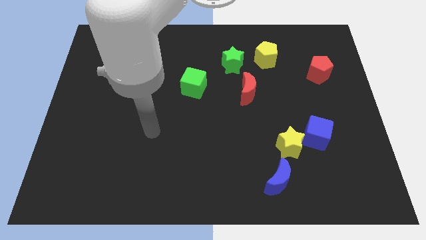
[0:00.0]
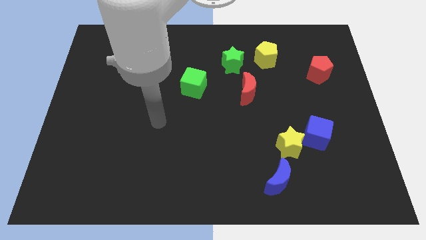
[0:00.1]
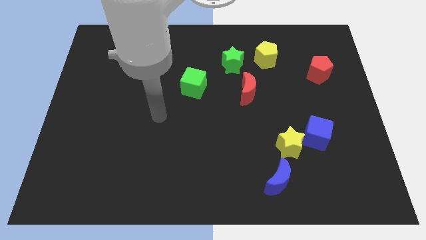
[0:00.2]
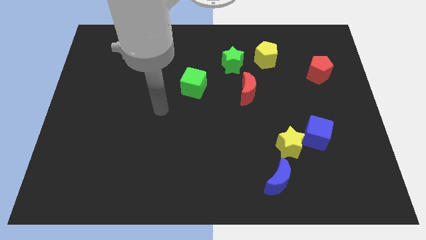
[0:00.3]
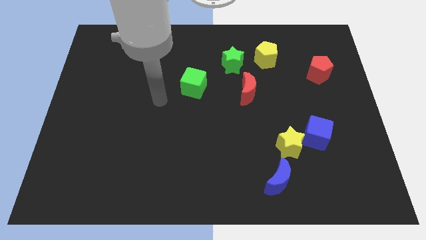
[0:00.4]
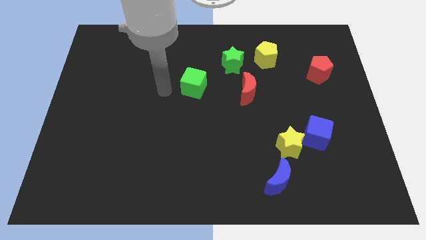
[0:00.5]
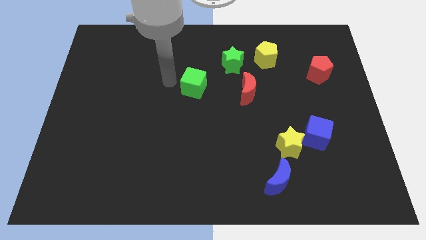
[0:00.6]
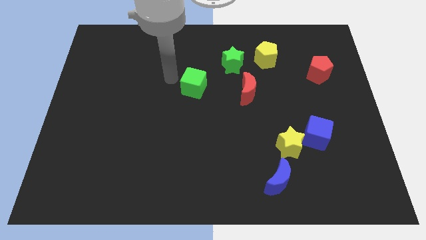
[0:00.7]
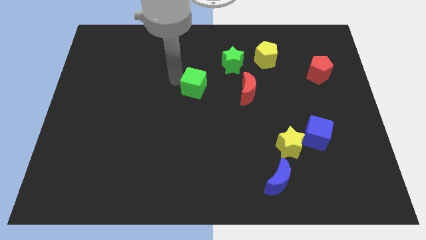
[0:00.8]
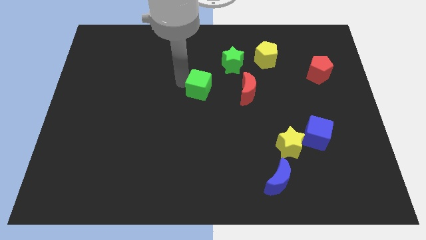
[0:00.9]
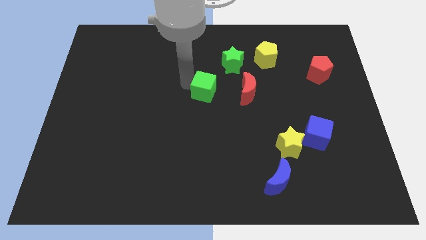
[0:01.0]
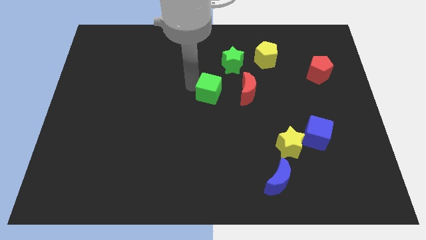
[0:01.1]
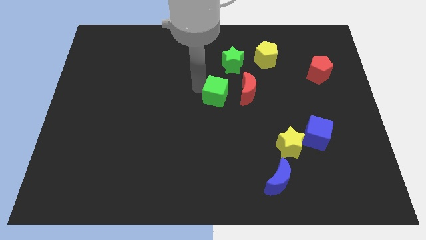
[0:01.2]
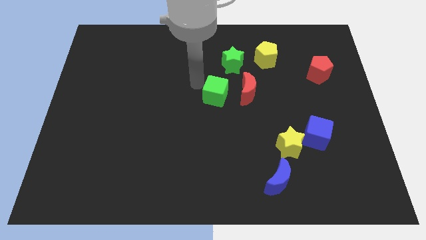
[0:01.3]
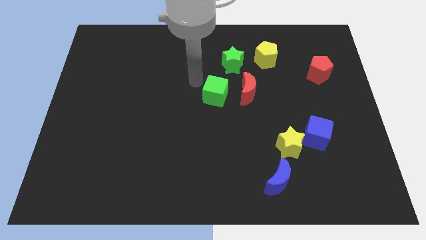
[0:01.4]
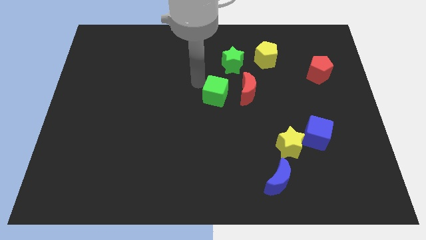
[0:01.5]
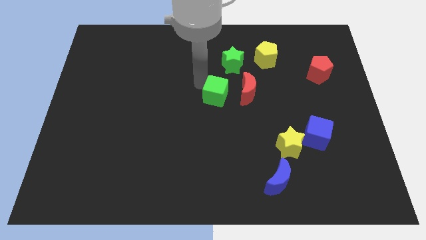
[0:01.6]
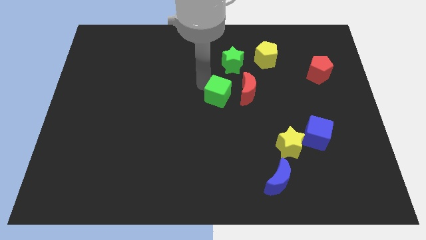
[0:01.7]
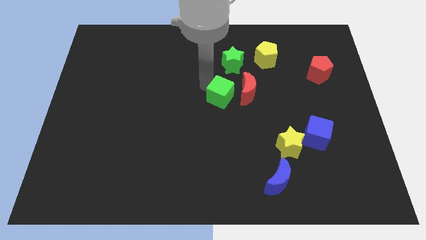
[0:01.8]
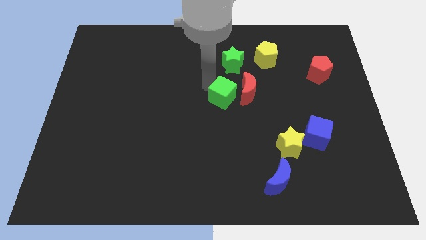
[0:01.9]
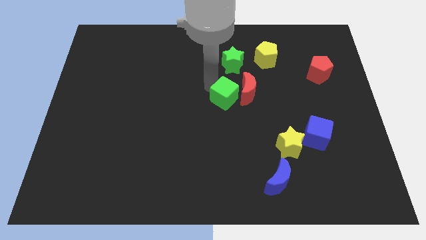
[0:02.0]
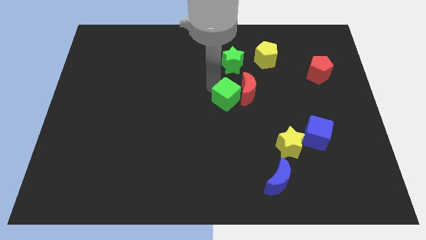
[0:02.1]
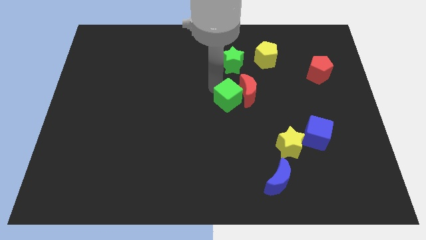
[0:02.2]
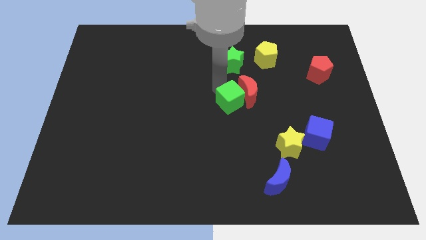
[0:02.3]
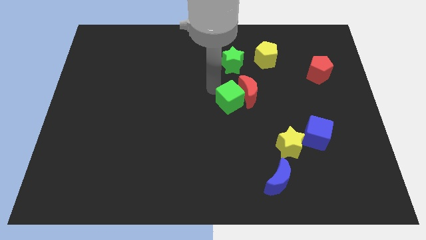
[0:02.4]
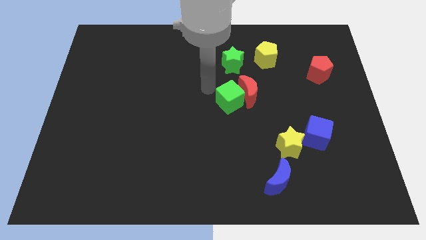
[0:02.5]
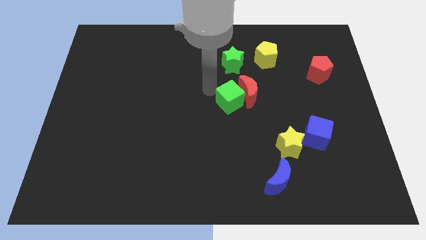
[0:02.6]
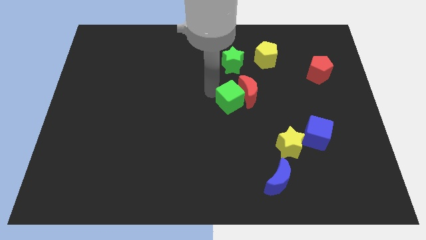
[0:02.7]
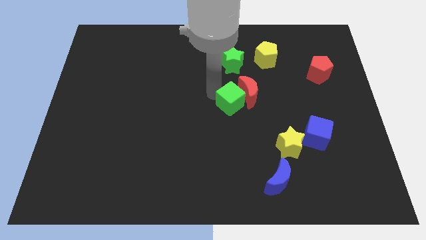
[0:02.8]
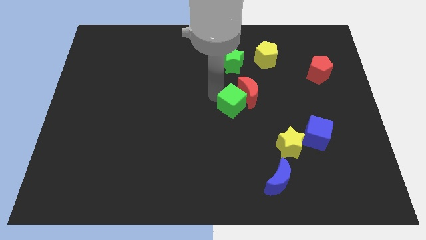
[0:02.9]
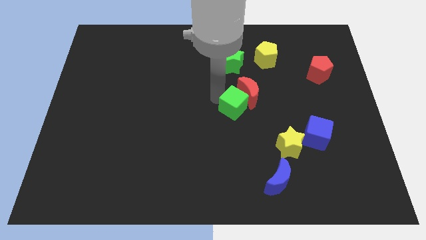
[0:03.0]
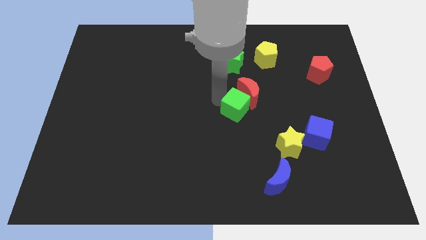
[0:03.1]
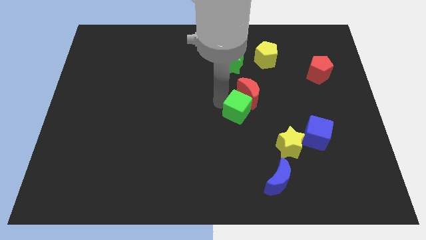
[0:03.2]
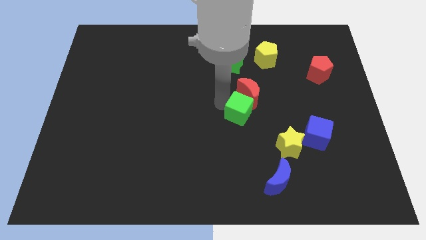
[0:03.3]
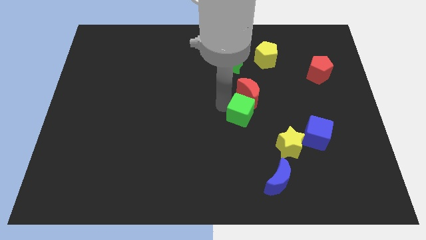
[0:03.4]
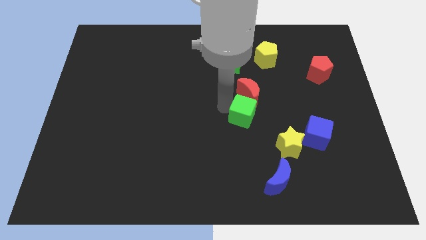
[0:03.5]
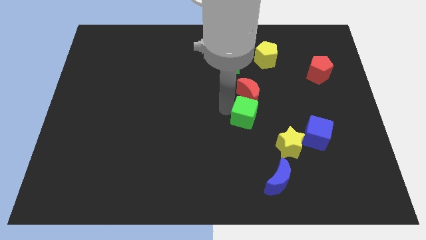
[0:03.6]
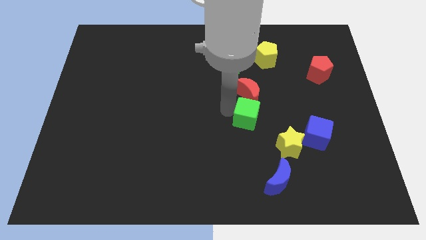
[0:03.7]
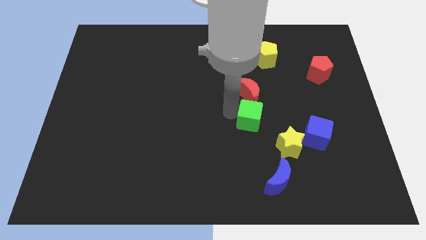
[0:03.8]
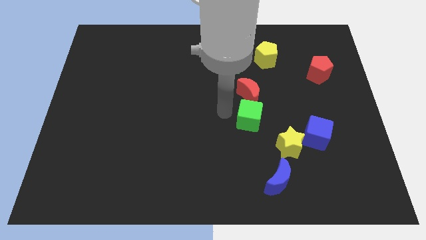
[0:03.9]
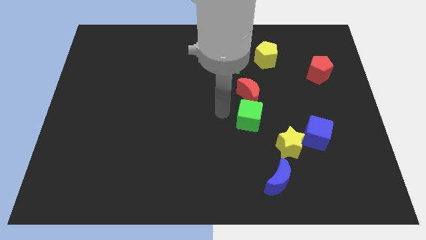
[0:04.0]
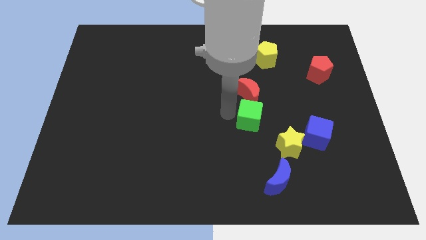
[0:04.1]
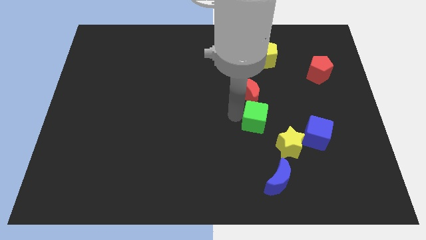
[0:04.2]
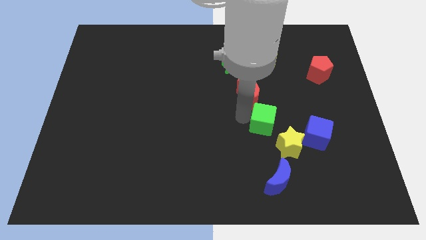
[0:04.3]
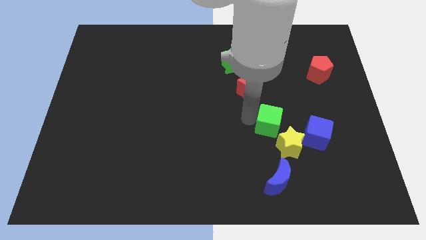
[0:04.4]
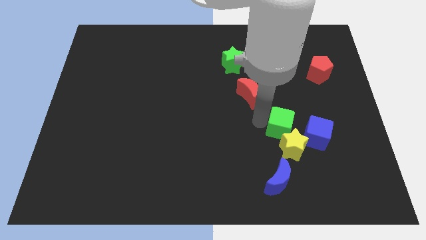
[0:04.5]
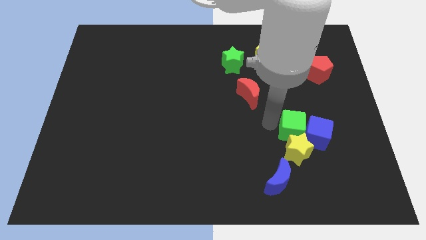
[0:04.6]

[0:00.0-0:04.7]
push the green cube next to the blue cube

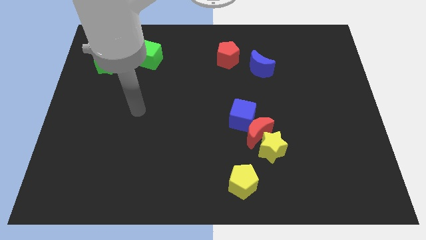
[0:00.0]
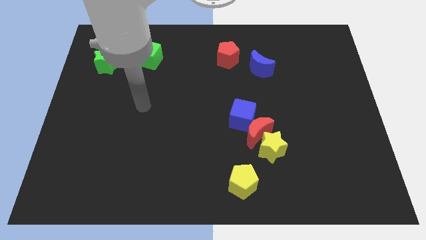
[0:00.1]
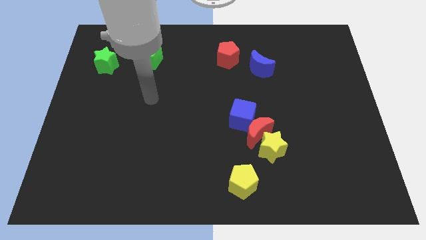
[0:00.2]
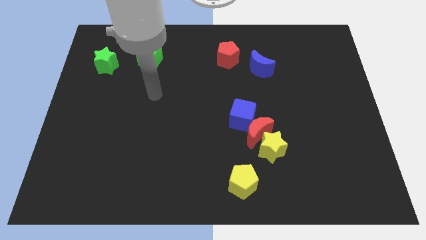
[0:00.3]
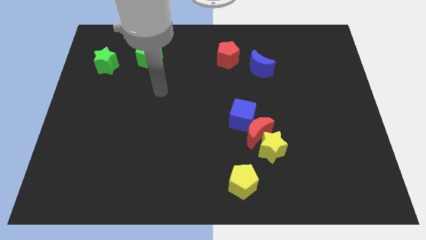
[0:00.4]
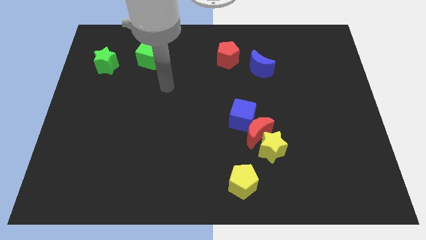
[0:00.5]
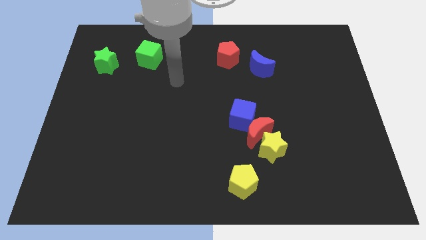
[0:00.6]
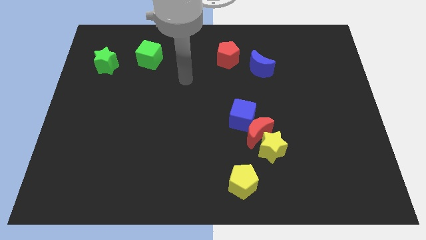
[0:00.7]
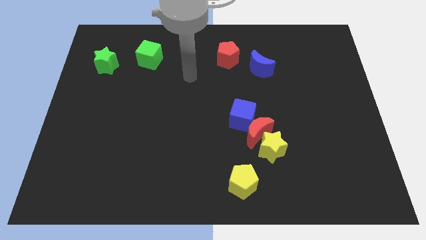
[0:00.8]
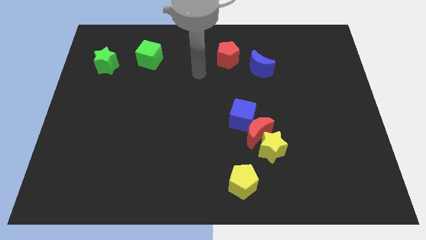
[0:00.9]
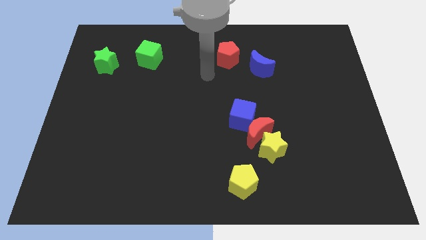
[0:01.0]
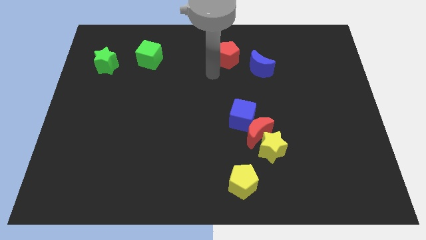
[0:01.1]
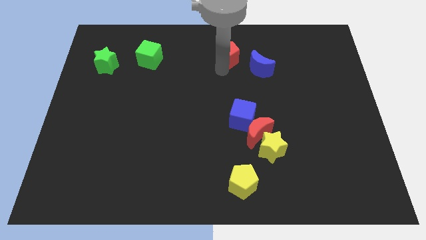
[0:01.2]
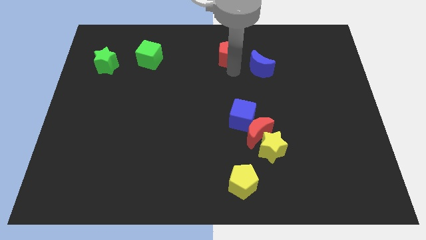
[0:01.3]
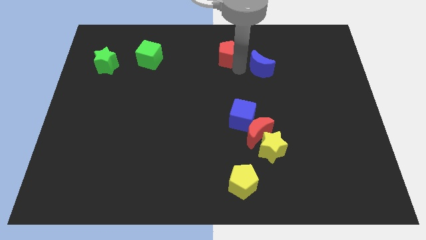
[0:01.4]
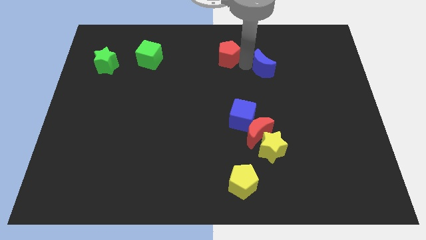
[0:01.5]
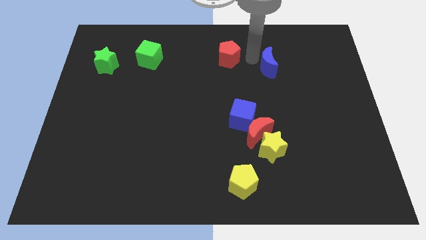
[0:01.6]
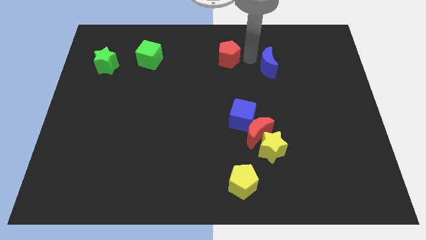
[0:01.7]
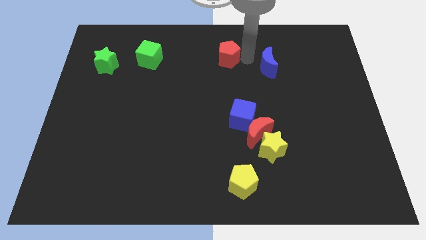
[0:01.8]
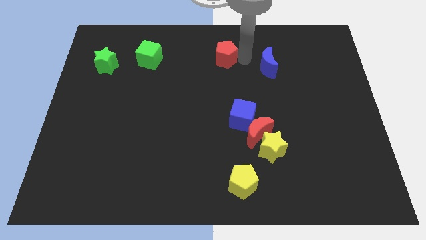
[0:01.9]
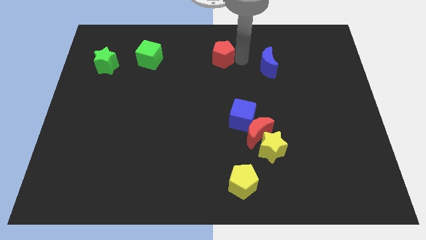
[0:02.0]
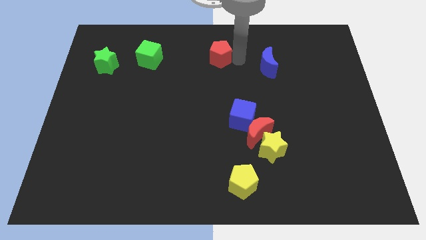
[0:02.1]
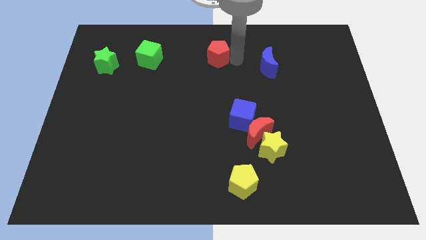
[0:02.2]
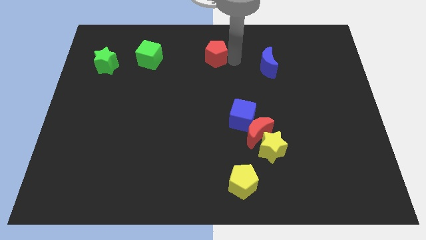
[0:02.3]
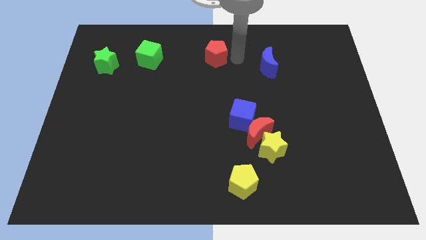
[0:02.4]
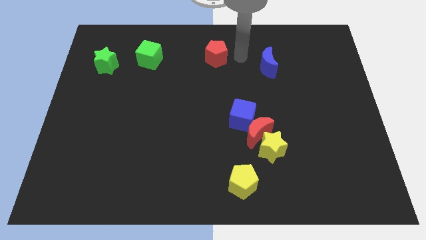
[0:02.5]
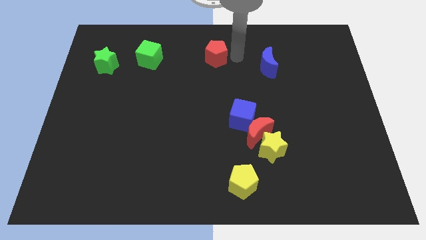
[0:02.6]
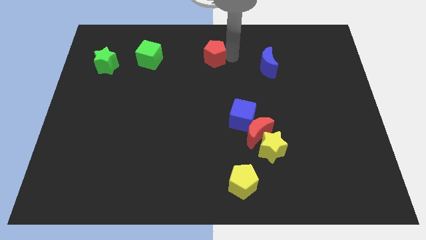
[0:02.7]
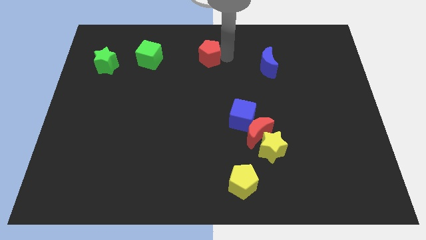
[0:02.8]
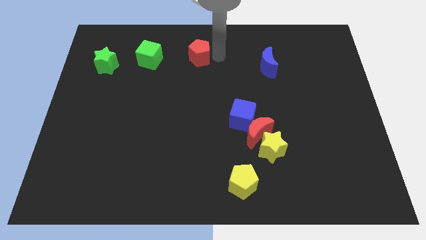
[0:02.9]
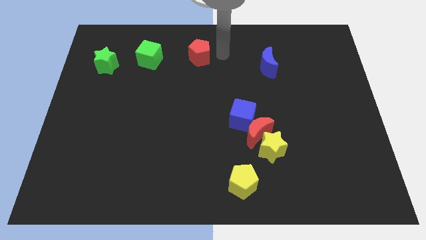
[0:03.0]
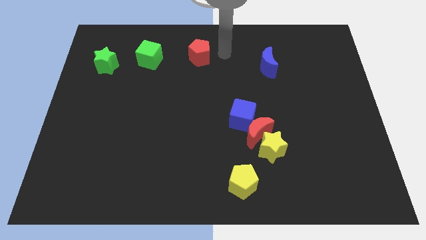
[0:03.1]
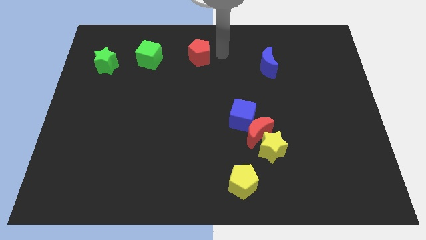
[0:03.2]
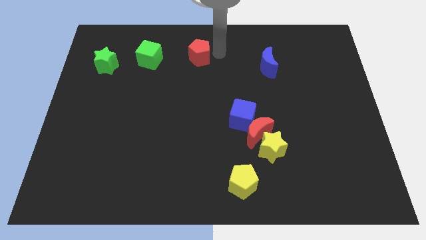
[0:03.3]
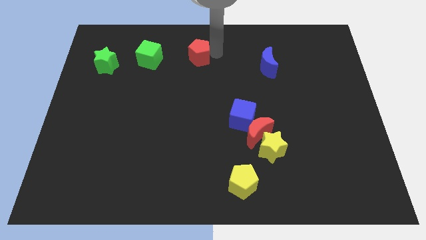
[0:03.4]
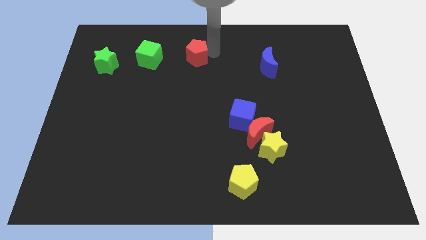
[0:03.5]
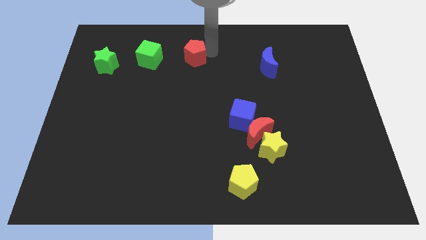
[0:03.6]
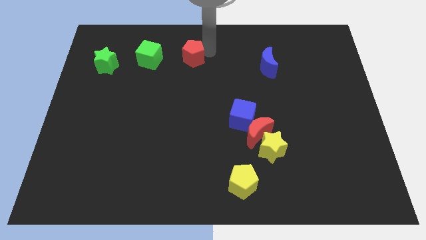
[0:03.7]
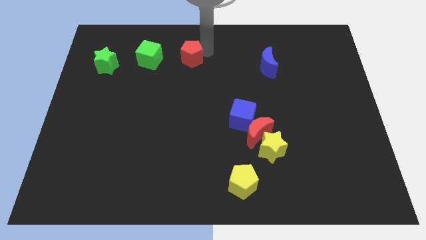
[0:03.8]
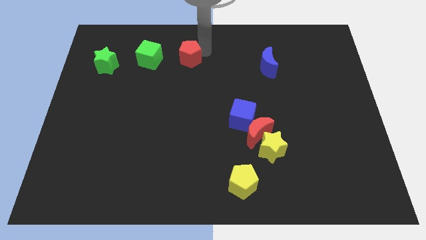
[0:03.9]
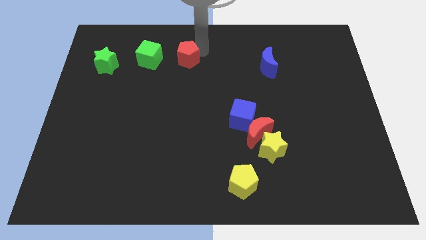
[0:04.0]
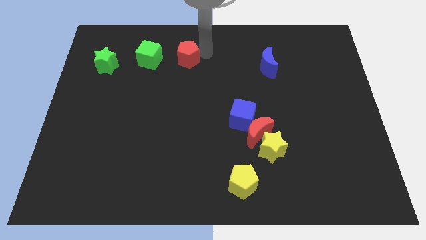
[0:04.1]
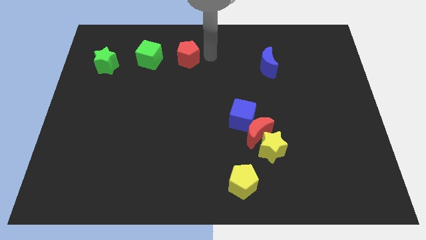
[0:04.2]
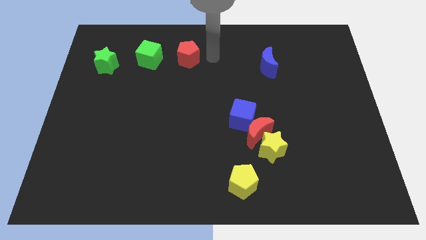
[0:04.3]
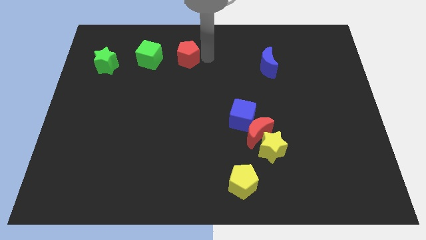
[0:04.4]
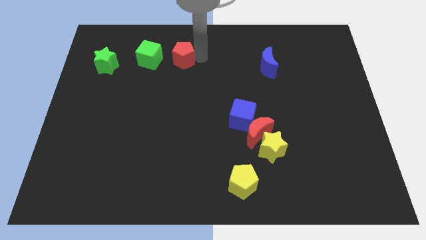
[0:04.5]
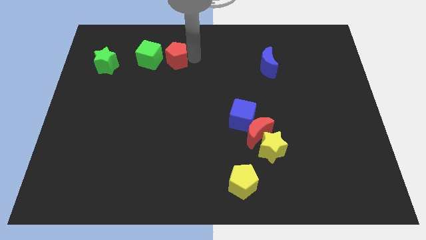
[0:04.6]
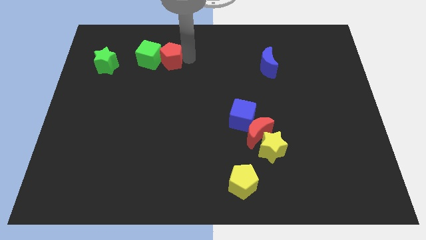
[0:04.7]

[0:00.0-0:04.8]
put the red pentagon next to the green cube
